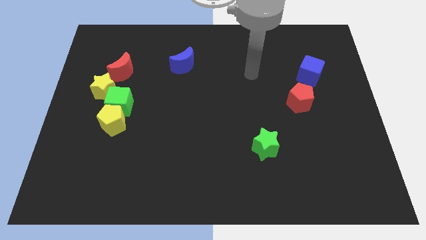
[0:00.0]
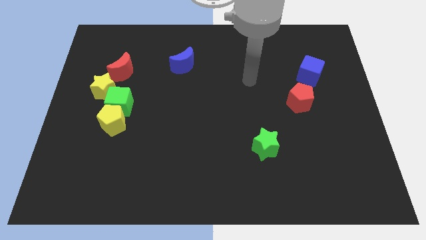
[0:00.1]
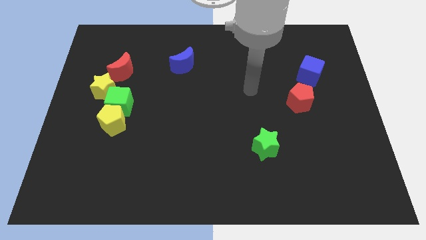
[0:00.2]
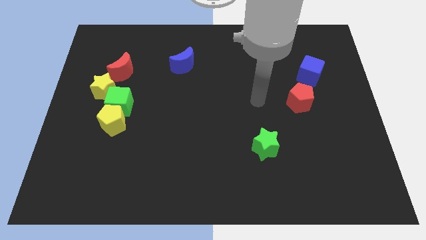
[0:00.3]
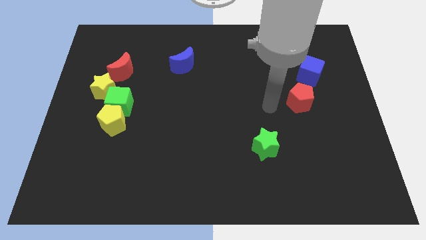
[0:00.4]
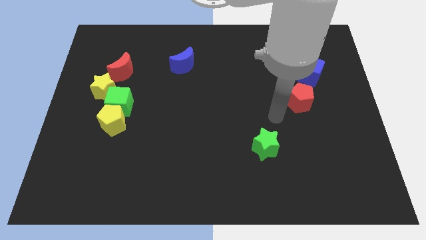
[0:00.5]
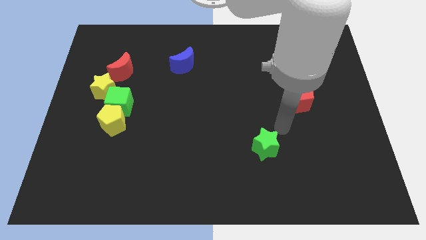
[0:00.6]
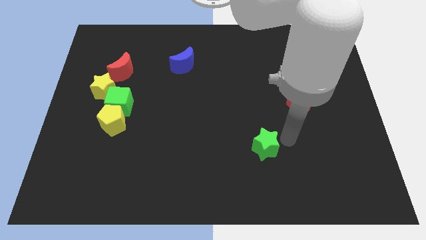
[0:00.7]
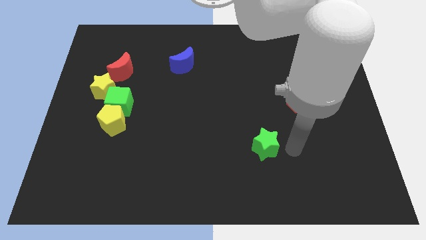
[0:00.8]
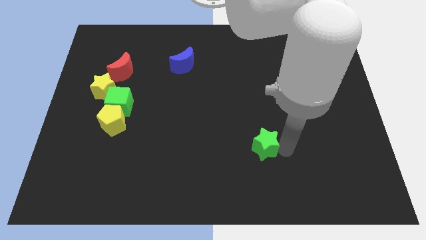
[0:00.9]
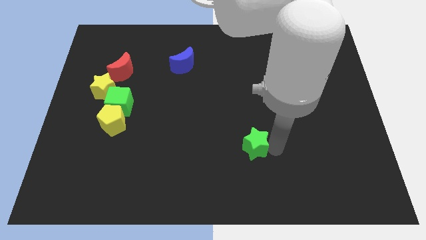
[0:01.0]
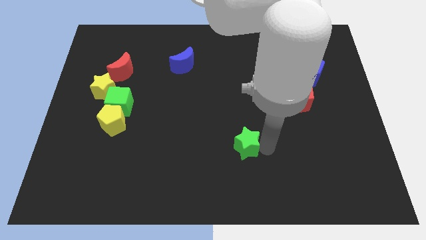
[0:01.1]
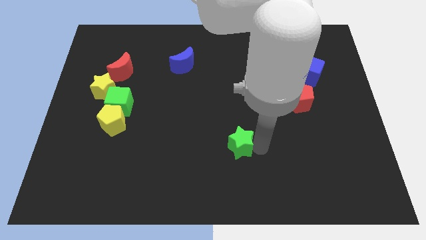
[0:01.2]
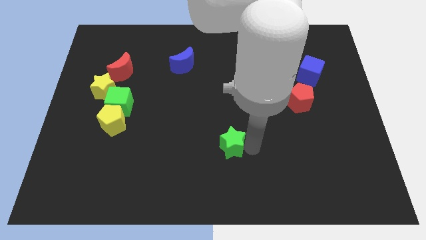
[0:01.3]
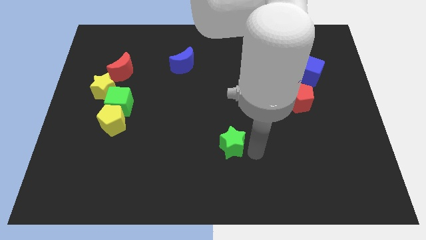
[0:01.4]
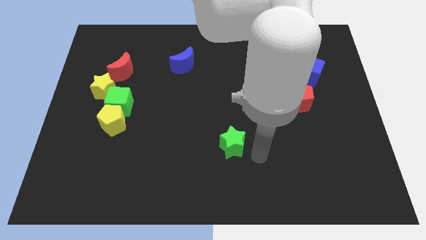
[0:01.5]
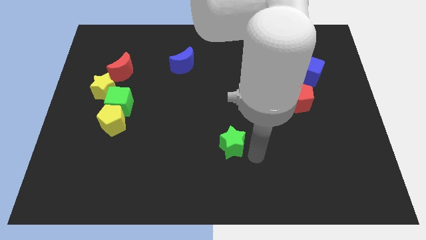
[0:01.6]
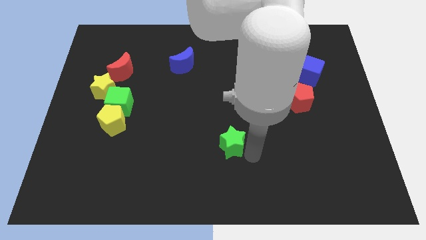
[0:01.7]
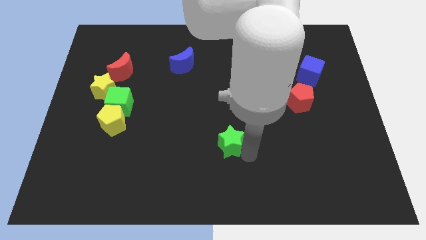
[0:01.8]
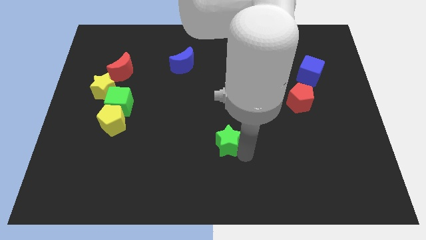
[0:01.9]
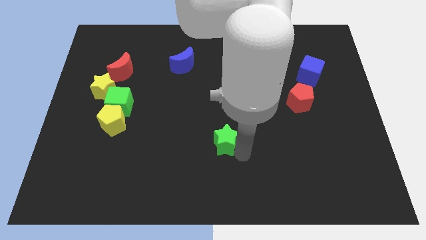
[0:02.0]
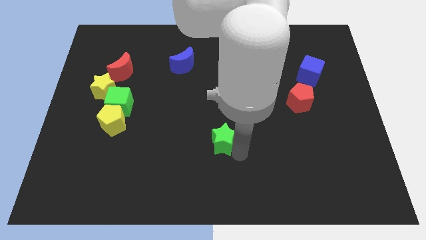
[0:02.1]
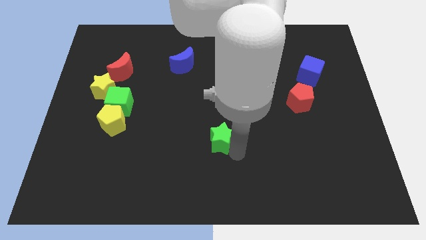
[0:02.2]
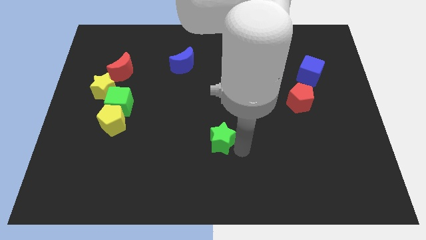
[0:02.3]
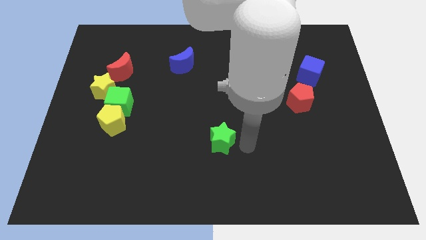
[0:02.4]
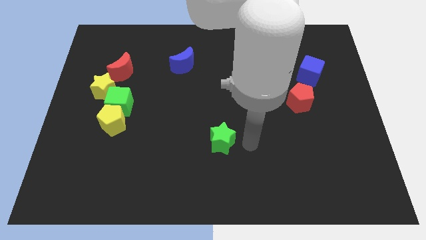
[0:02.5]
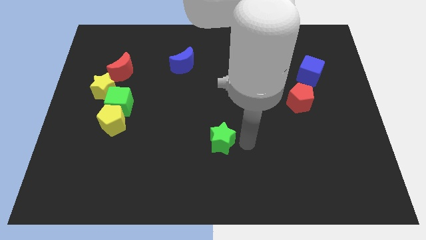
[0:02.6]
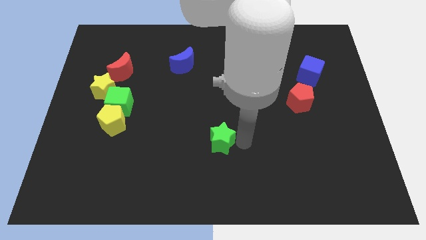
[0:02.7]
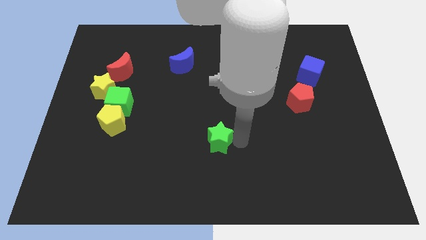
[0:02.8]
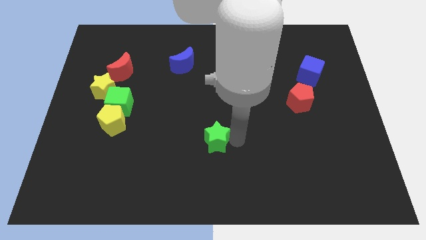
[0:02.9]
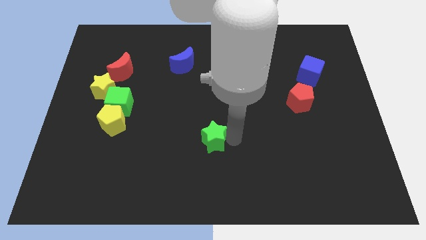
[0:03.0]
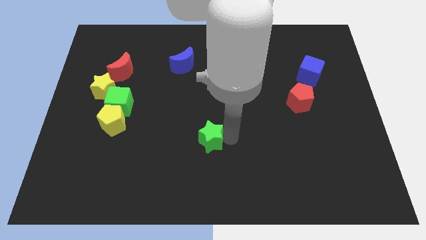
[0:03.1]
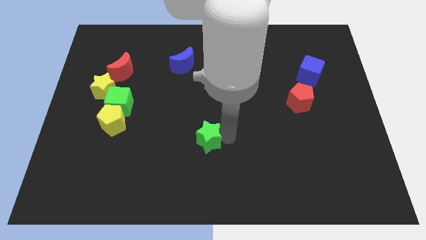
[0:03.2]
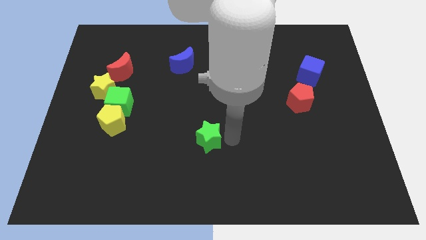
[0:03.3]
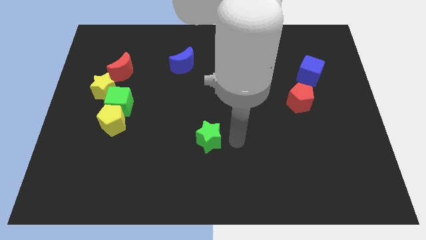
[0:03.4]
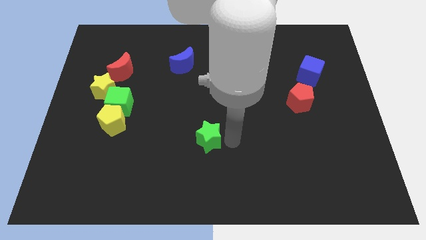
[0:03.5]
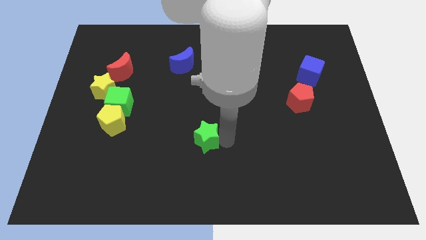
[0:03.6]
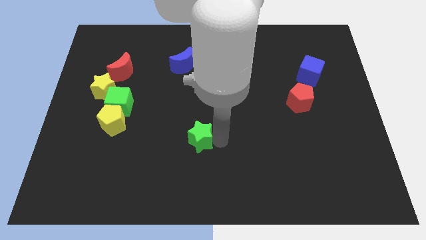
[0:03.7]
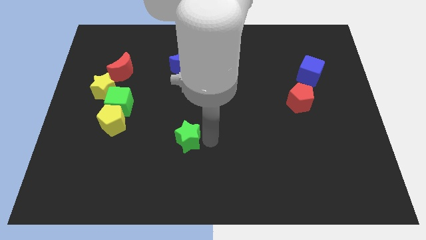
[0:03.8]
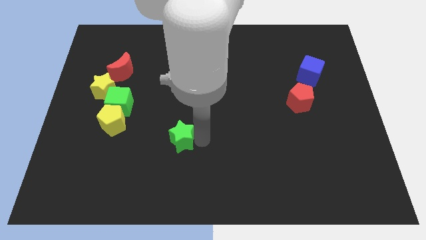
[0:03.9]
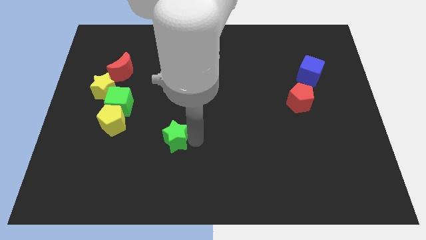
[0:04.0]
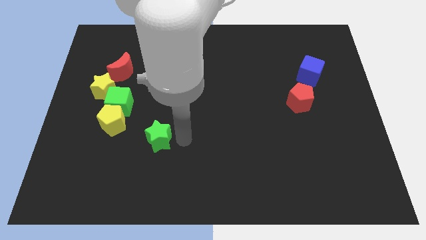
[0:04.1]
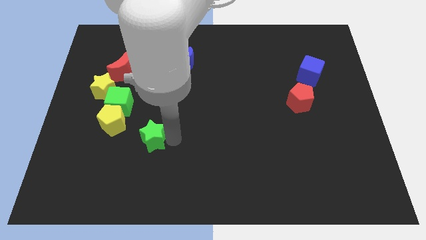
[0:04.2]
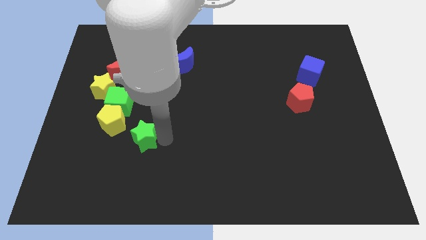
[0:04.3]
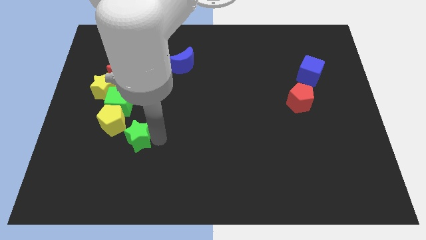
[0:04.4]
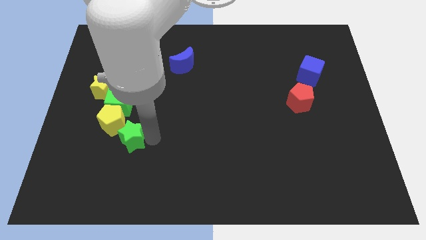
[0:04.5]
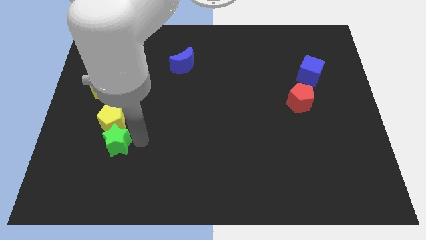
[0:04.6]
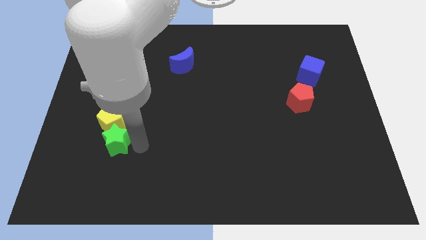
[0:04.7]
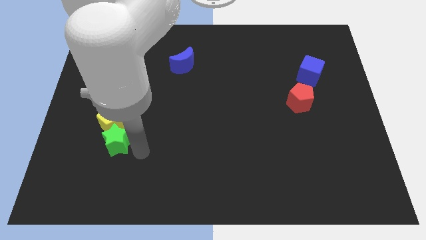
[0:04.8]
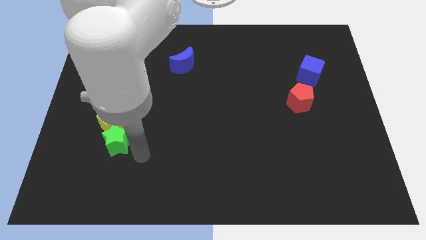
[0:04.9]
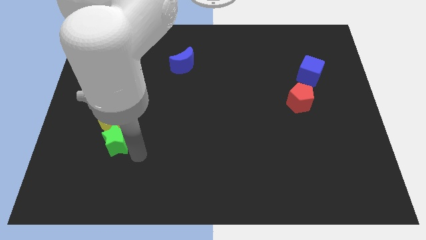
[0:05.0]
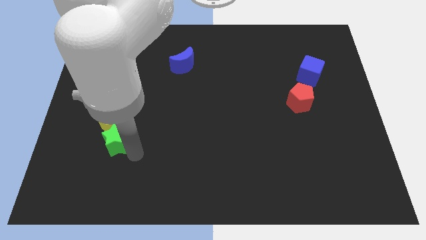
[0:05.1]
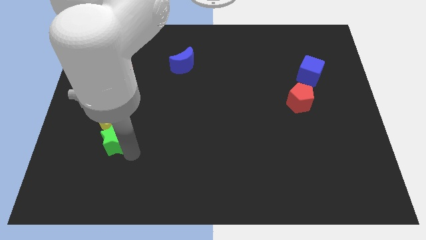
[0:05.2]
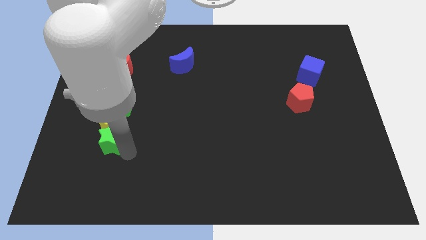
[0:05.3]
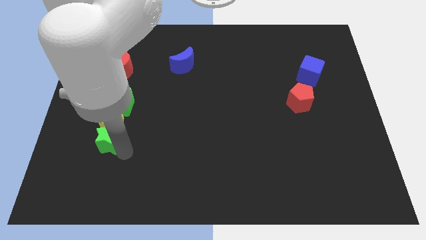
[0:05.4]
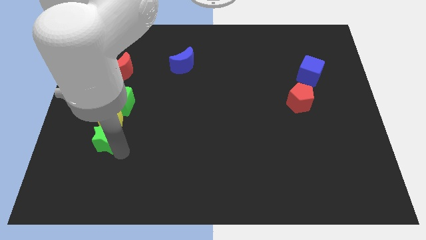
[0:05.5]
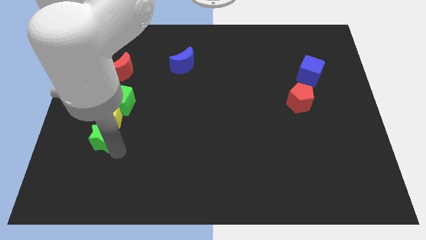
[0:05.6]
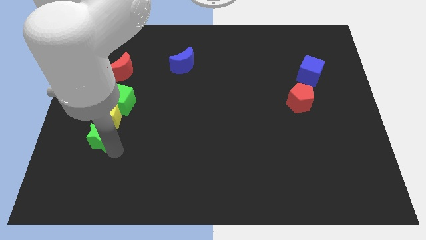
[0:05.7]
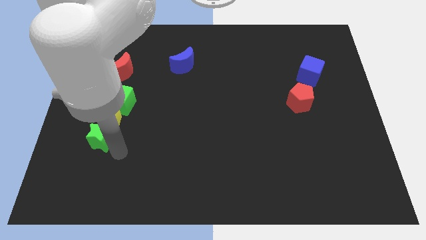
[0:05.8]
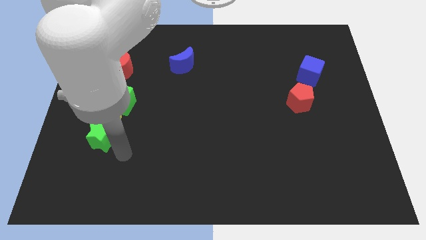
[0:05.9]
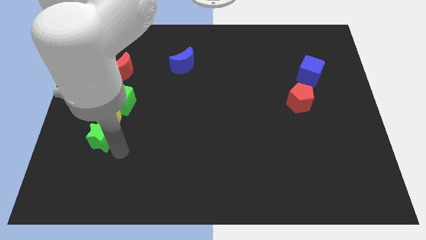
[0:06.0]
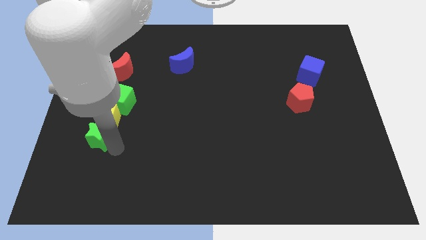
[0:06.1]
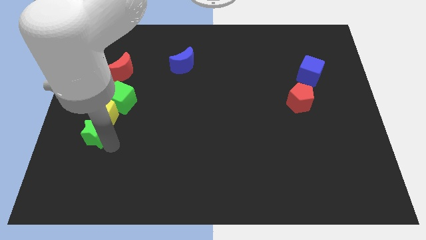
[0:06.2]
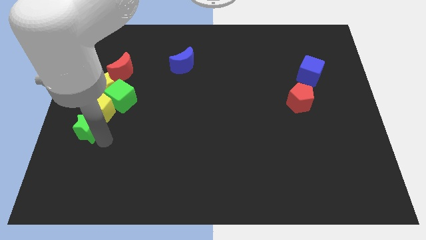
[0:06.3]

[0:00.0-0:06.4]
move the green star to the left side of the board

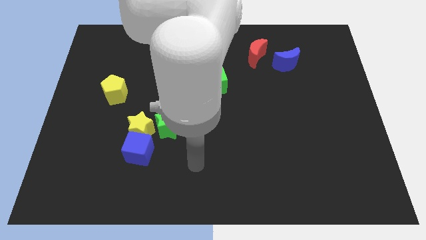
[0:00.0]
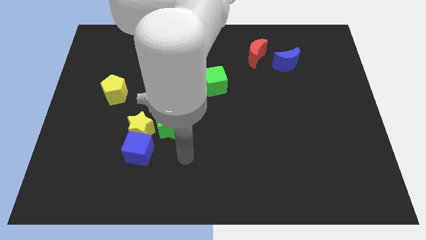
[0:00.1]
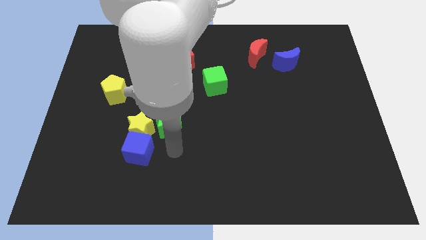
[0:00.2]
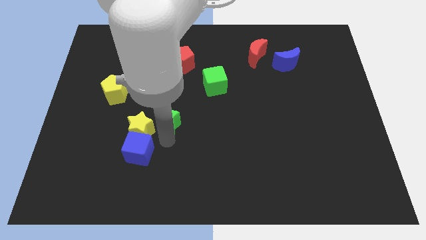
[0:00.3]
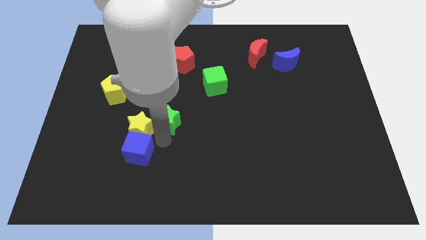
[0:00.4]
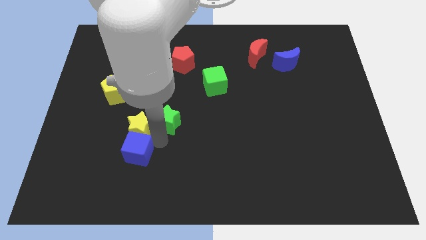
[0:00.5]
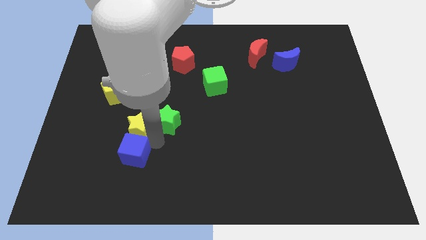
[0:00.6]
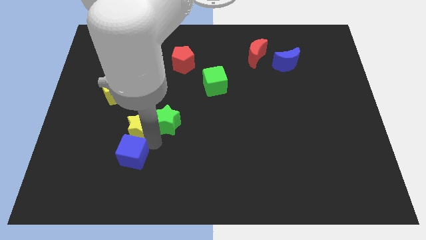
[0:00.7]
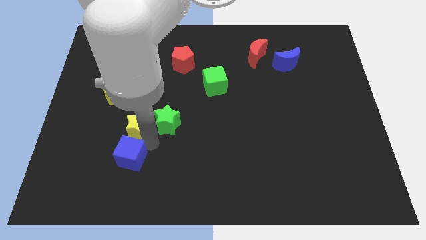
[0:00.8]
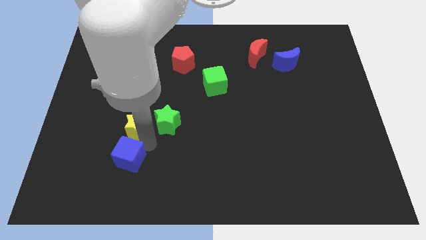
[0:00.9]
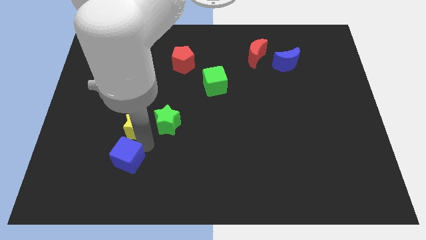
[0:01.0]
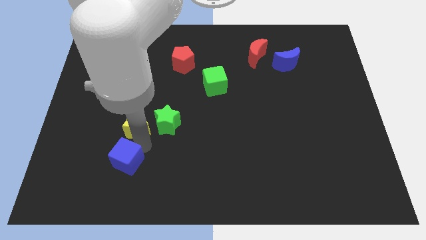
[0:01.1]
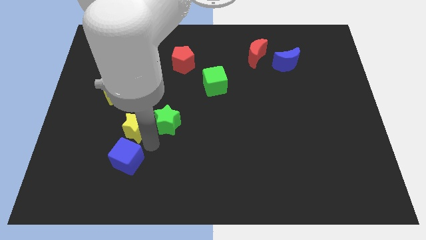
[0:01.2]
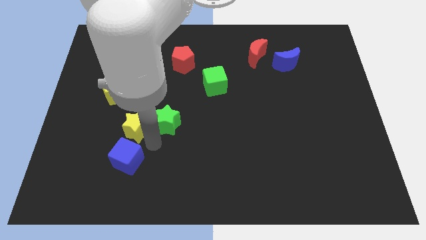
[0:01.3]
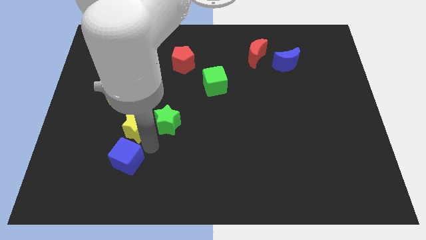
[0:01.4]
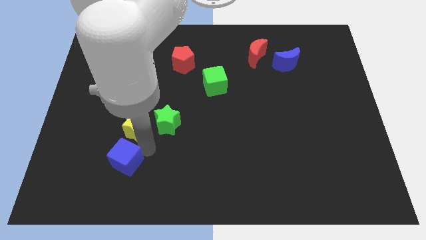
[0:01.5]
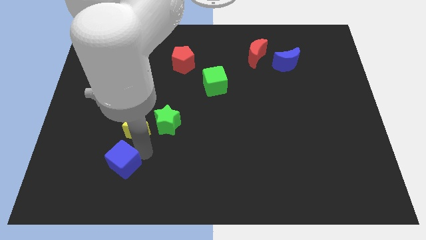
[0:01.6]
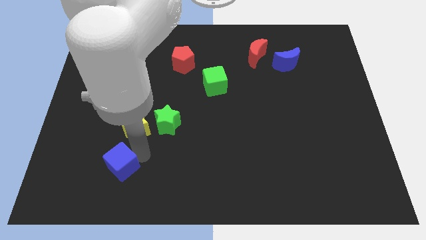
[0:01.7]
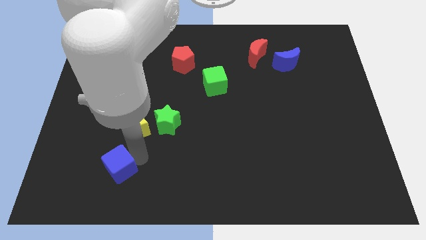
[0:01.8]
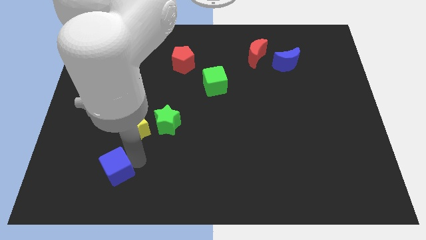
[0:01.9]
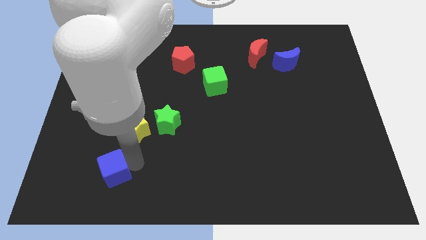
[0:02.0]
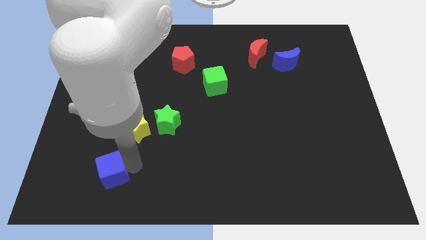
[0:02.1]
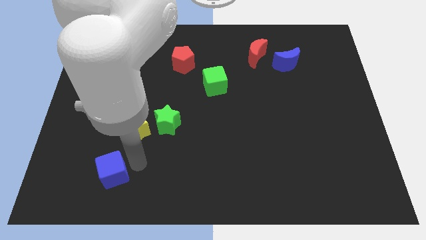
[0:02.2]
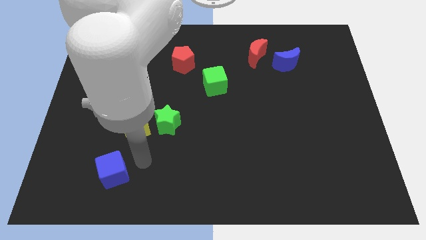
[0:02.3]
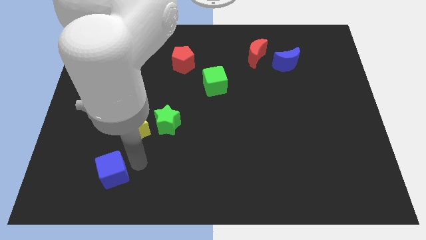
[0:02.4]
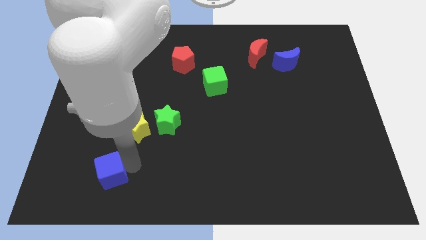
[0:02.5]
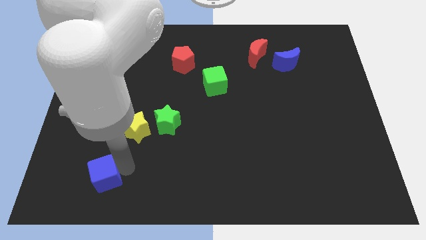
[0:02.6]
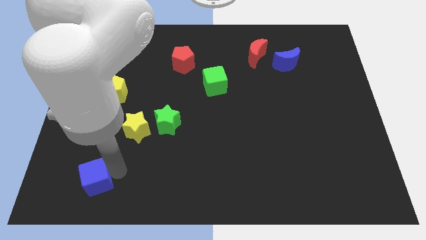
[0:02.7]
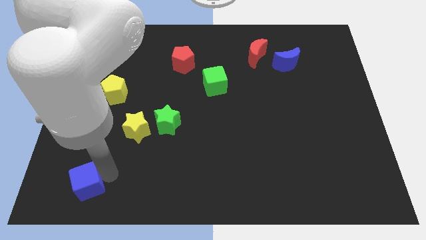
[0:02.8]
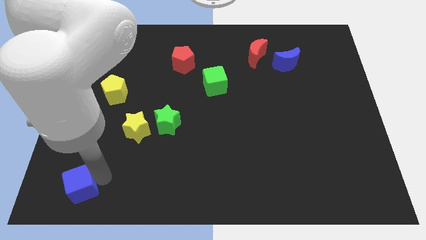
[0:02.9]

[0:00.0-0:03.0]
slide the blue cube to the bottom left
